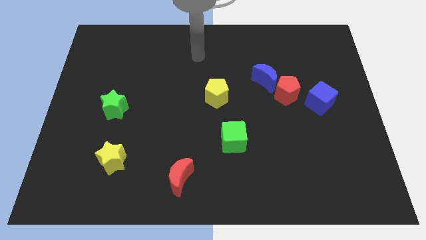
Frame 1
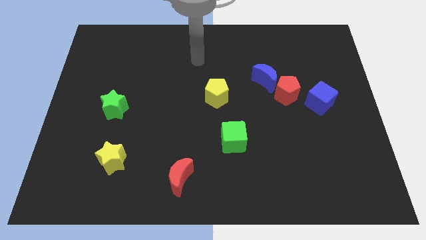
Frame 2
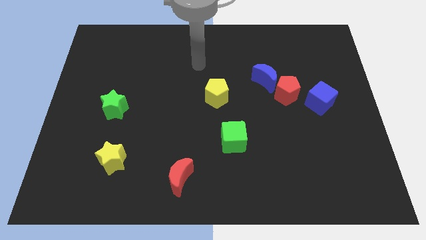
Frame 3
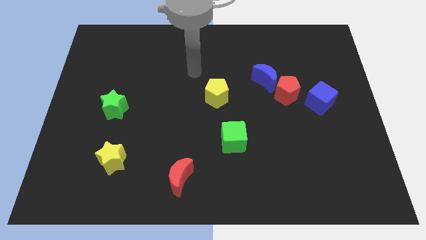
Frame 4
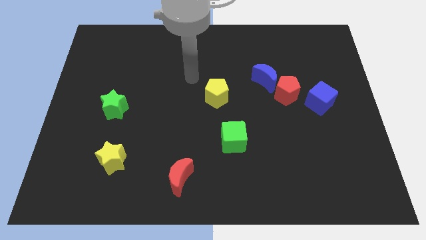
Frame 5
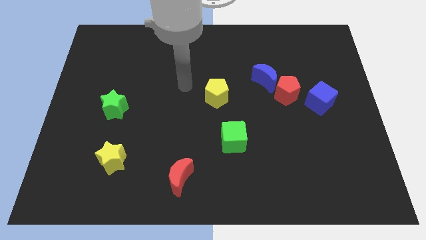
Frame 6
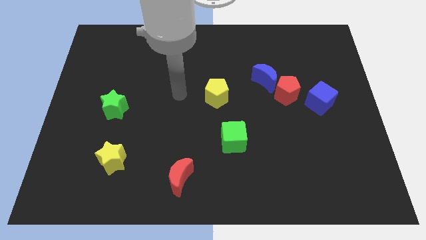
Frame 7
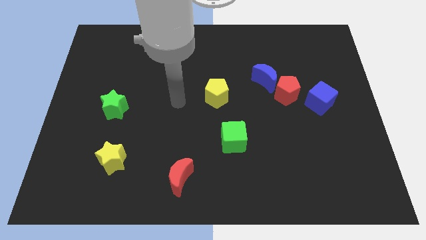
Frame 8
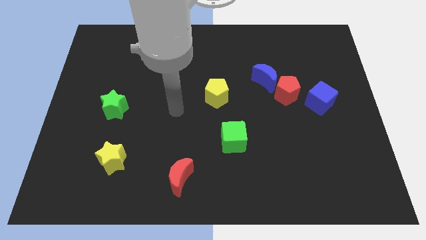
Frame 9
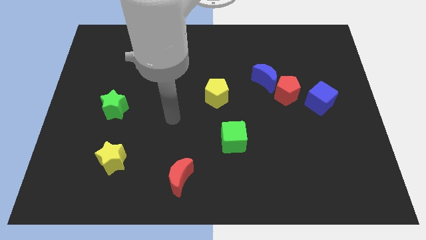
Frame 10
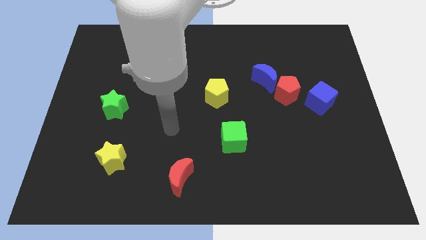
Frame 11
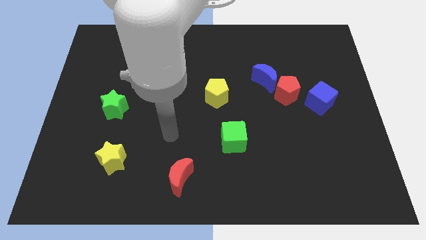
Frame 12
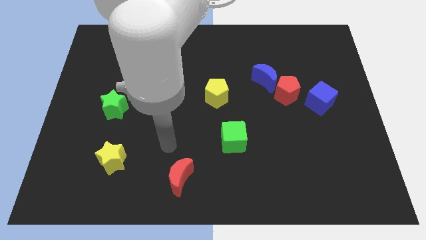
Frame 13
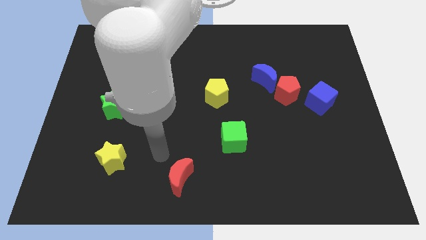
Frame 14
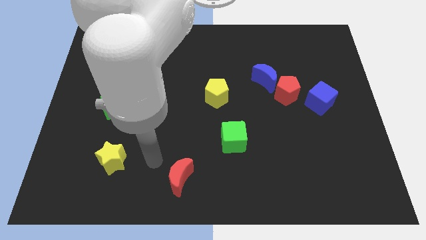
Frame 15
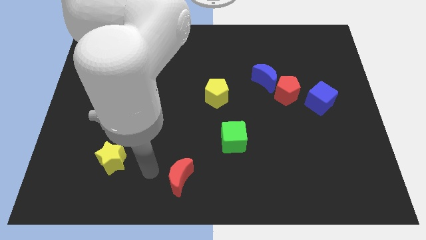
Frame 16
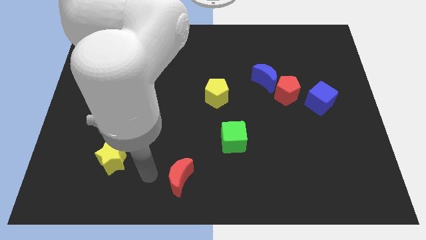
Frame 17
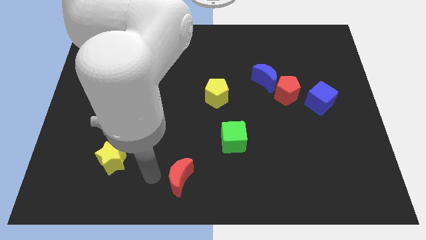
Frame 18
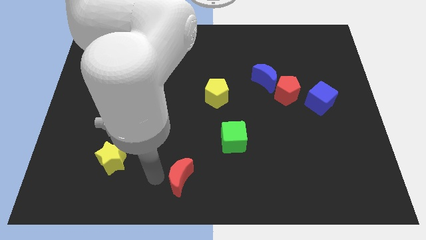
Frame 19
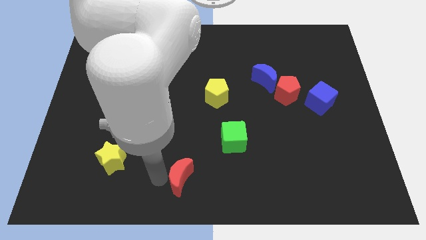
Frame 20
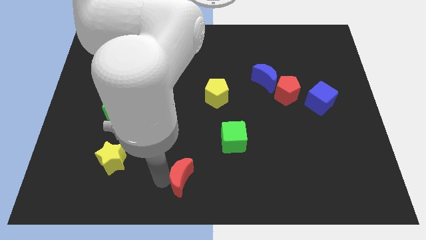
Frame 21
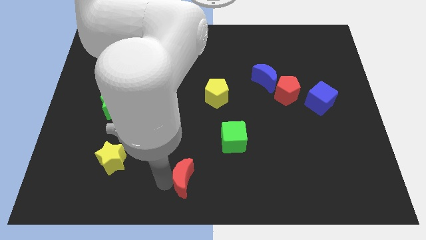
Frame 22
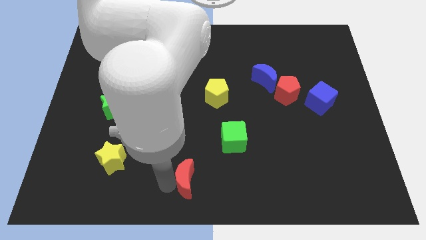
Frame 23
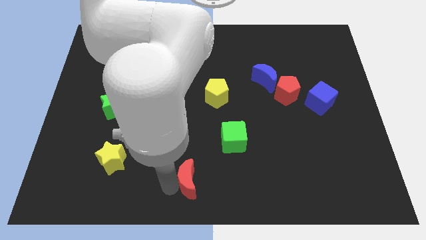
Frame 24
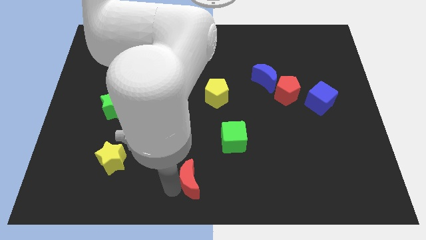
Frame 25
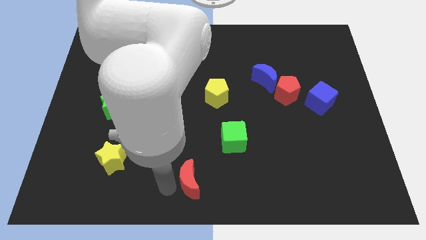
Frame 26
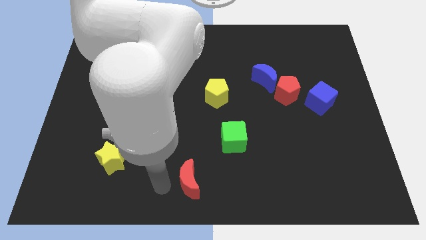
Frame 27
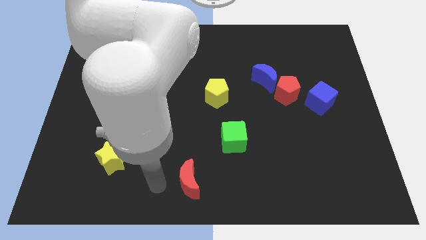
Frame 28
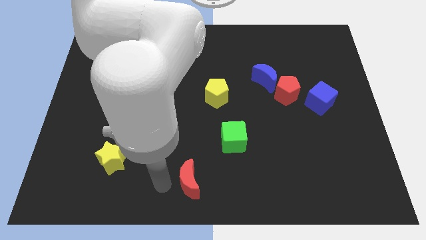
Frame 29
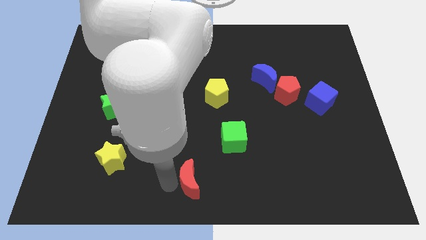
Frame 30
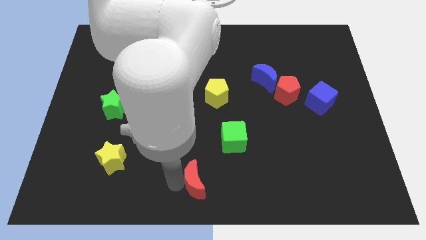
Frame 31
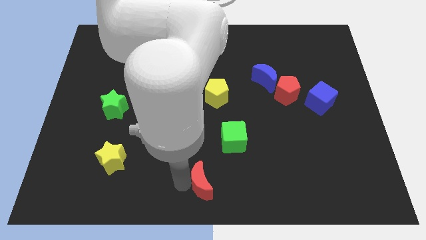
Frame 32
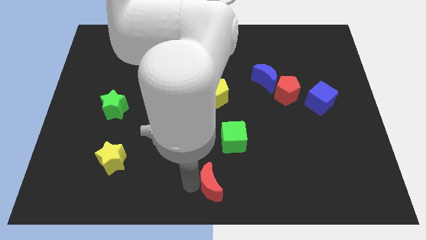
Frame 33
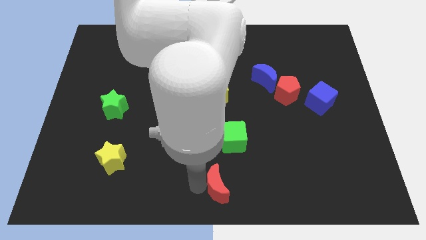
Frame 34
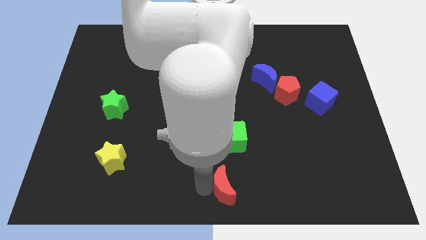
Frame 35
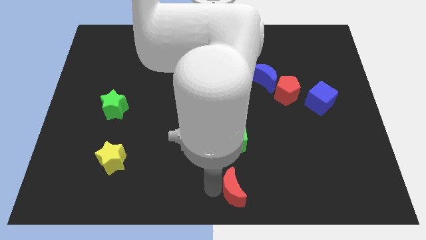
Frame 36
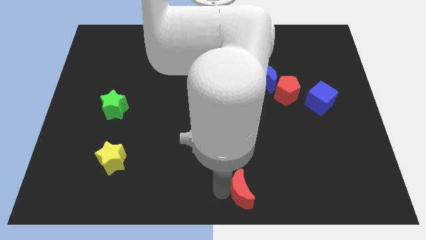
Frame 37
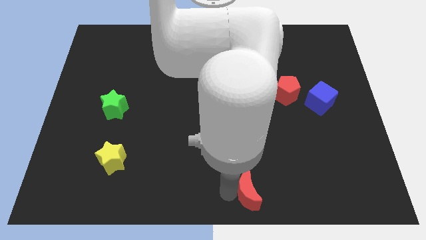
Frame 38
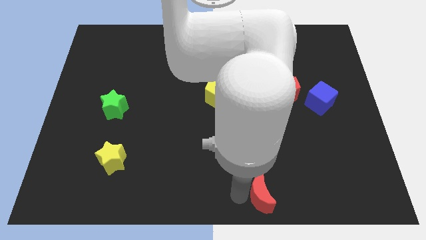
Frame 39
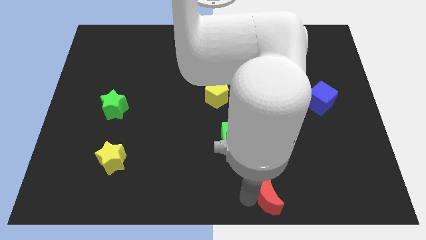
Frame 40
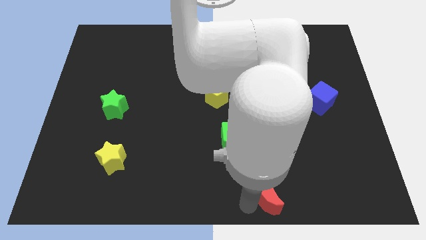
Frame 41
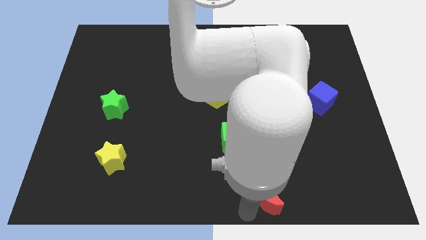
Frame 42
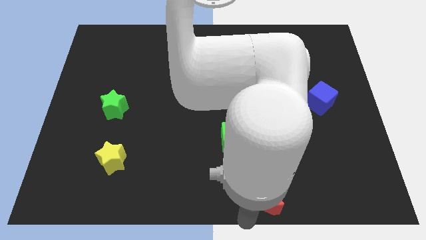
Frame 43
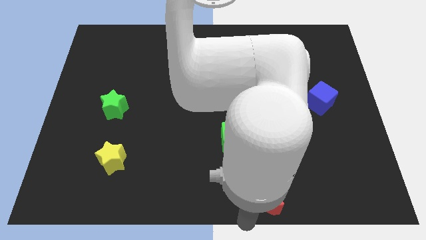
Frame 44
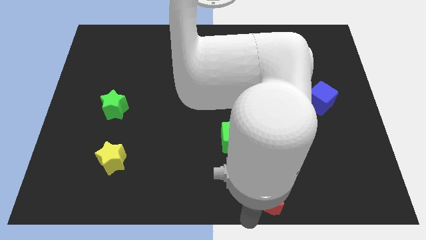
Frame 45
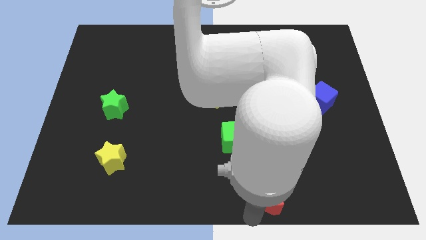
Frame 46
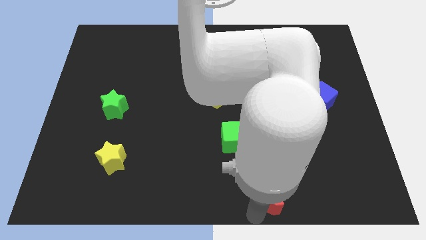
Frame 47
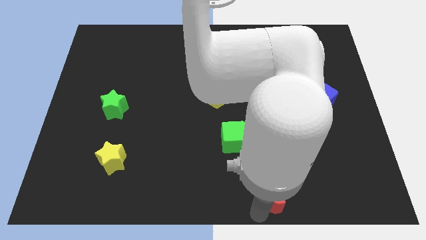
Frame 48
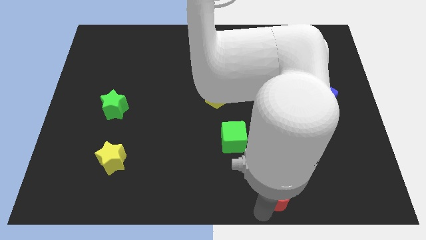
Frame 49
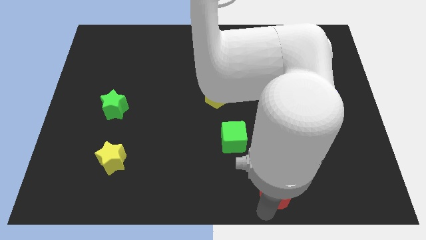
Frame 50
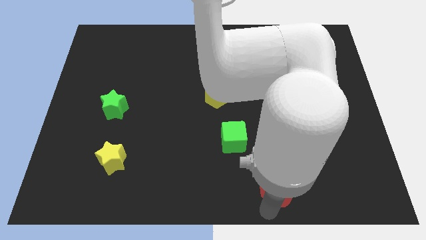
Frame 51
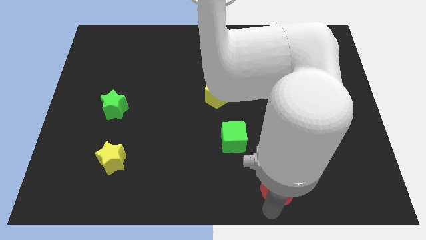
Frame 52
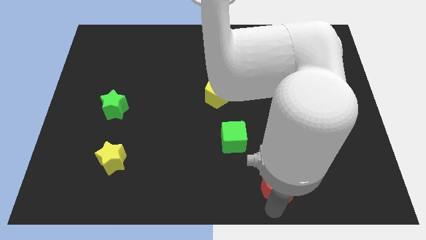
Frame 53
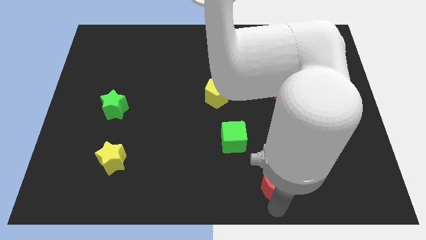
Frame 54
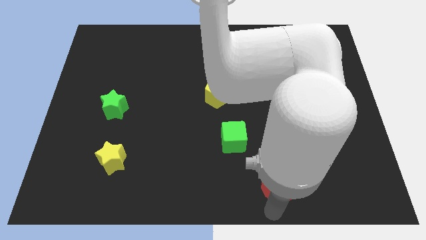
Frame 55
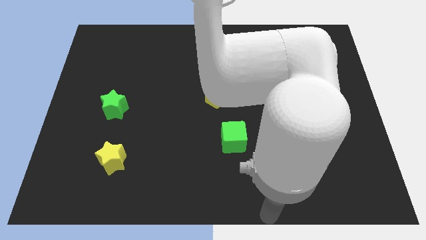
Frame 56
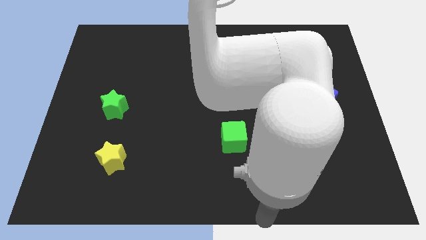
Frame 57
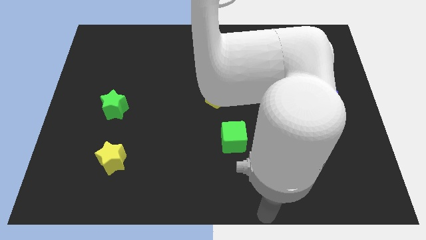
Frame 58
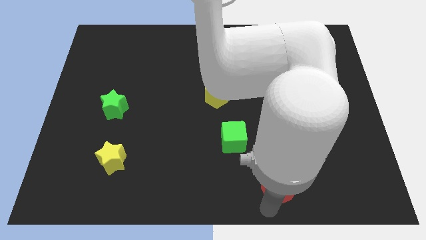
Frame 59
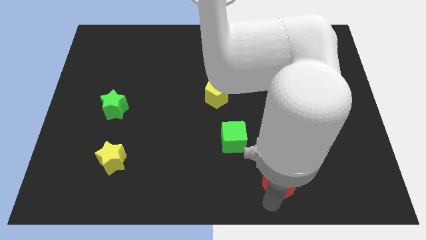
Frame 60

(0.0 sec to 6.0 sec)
push the red moon right

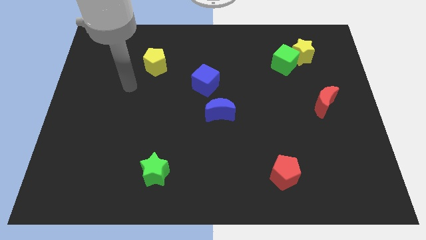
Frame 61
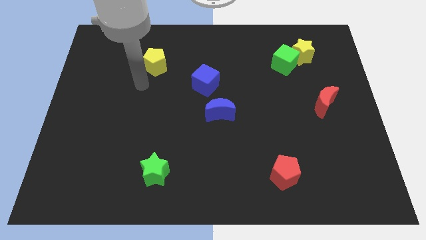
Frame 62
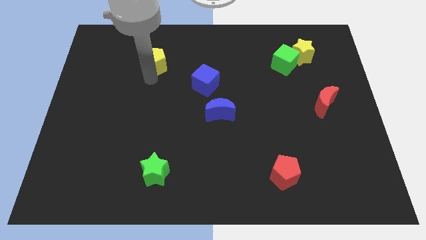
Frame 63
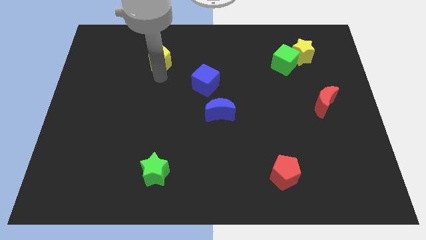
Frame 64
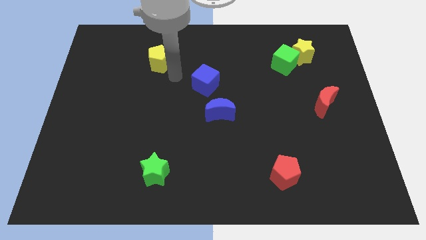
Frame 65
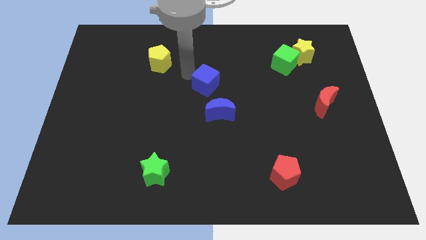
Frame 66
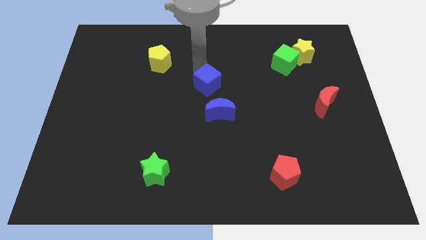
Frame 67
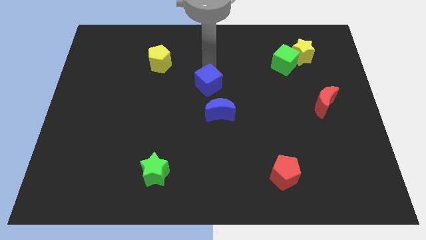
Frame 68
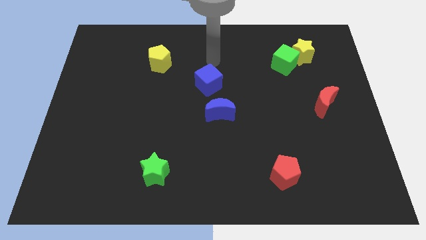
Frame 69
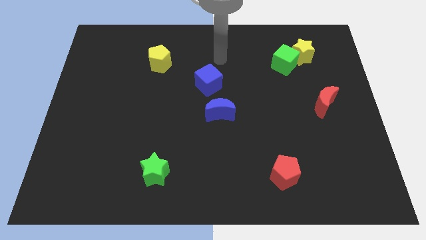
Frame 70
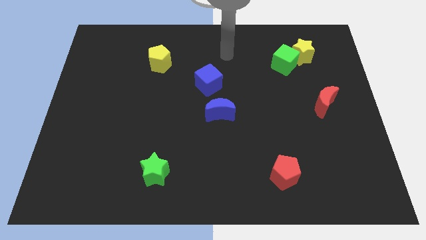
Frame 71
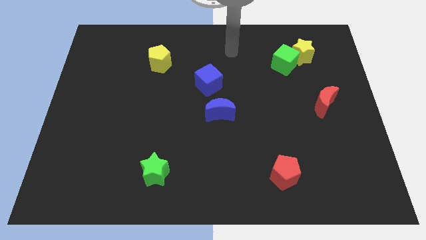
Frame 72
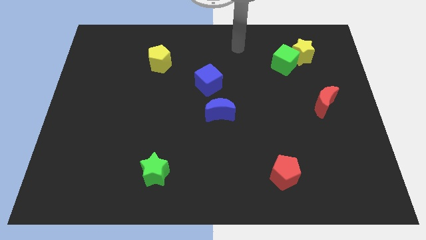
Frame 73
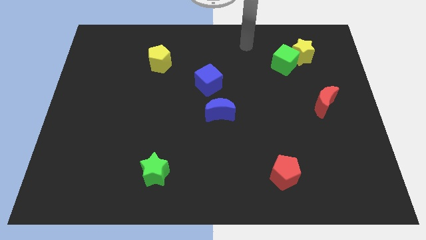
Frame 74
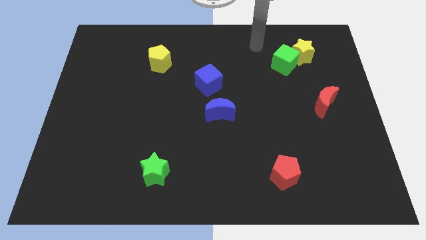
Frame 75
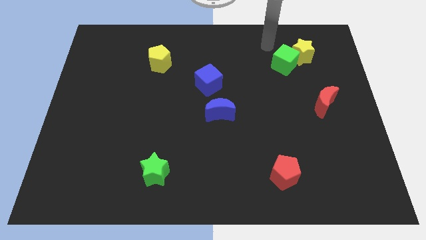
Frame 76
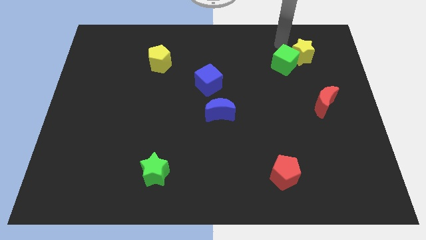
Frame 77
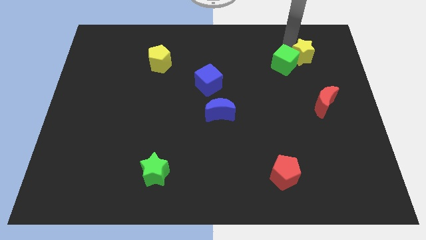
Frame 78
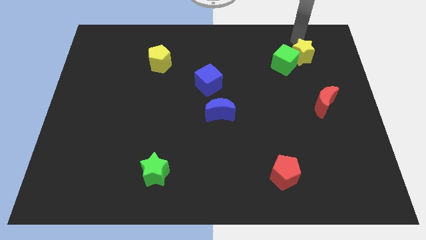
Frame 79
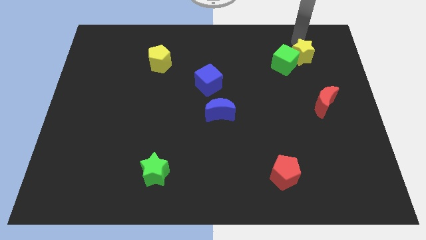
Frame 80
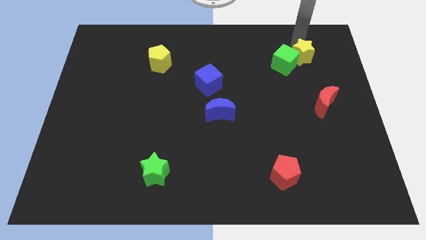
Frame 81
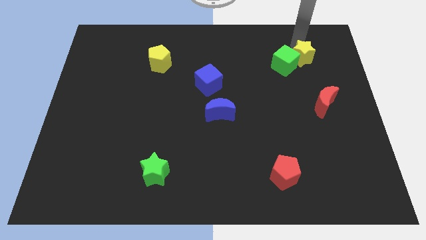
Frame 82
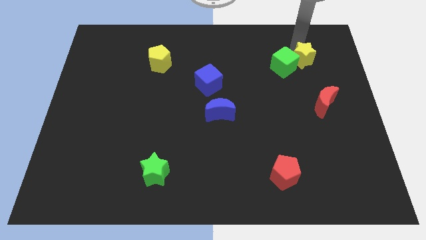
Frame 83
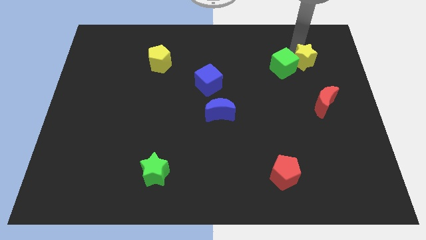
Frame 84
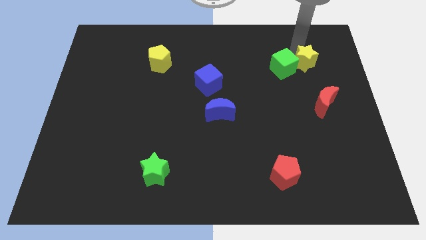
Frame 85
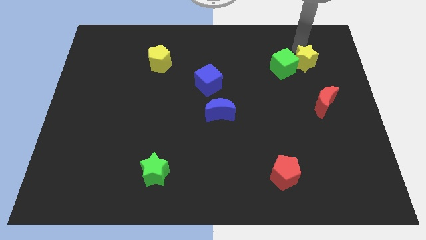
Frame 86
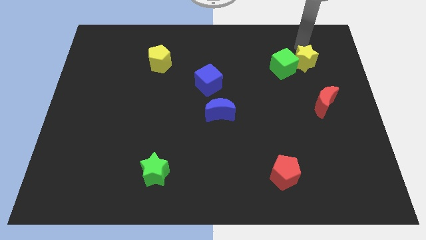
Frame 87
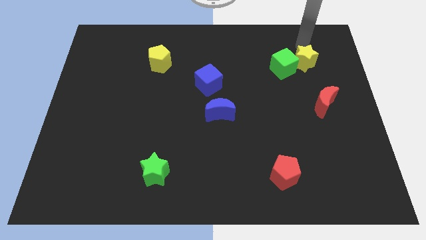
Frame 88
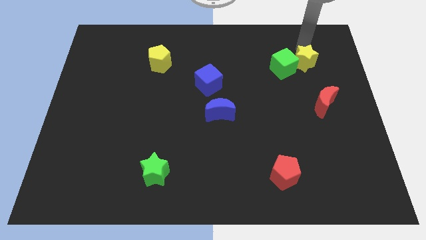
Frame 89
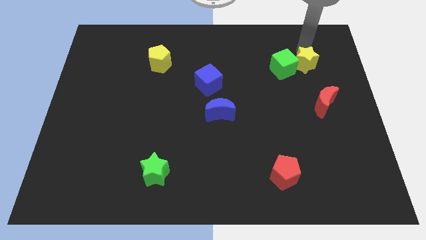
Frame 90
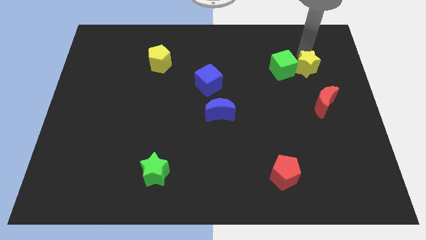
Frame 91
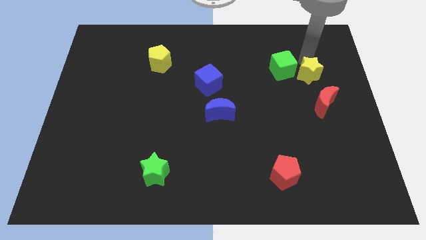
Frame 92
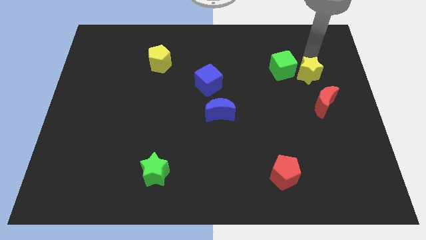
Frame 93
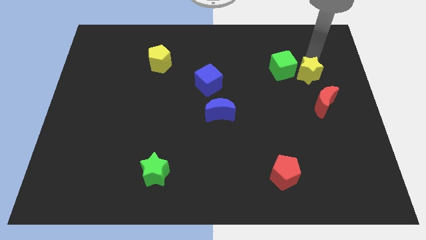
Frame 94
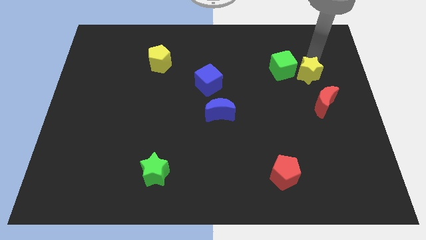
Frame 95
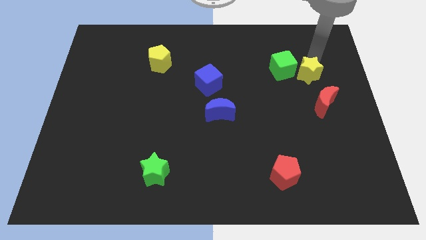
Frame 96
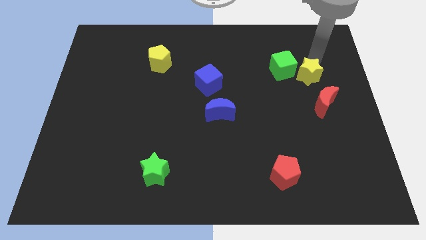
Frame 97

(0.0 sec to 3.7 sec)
push the yellow star slightly downwards
